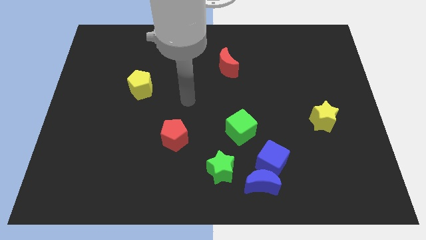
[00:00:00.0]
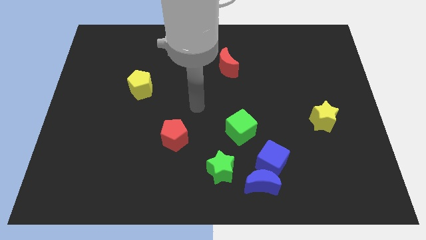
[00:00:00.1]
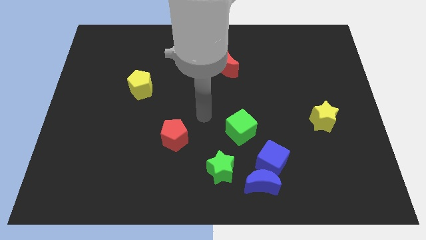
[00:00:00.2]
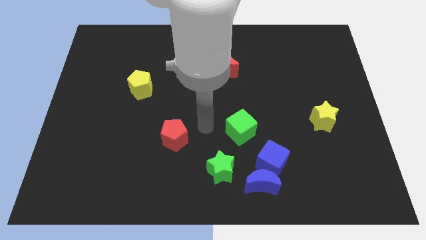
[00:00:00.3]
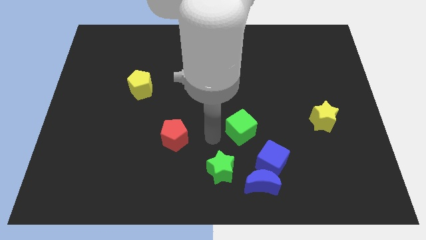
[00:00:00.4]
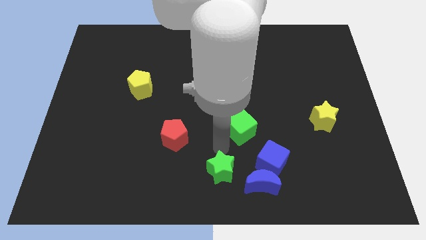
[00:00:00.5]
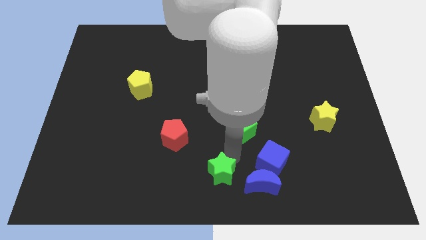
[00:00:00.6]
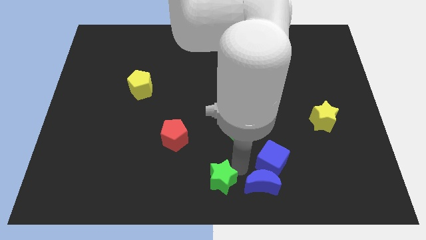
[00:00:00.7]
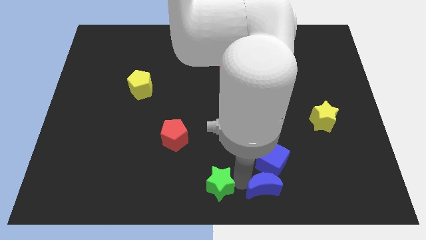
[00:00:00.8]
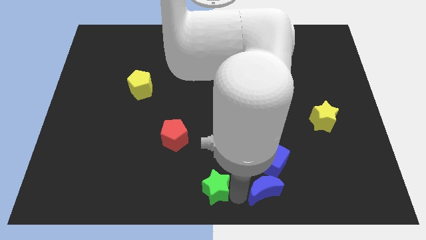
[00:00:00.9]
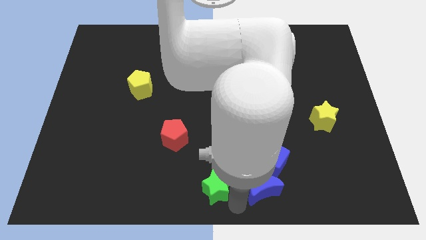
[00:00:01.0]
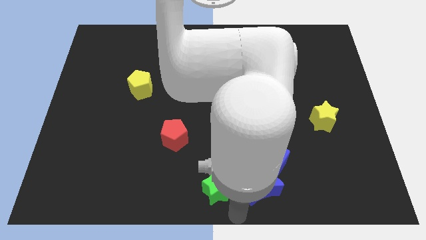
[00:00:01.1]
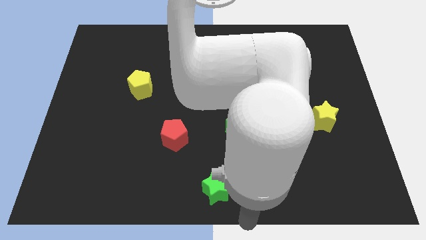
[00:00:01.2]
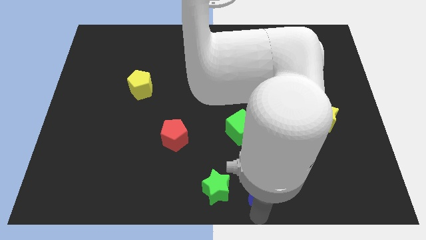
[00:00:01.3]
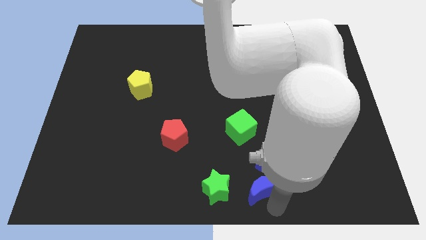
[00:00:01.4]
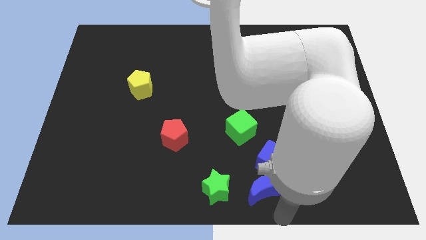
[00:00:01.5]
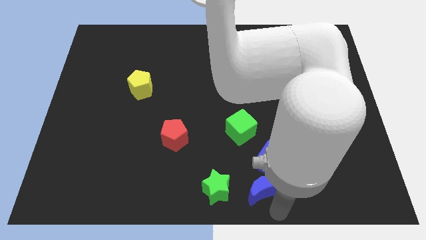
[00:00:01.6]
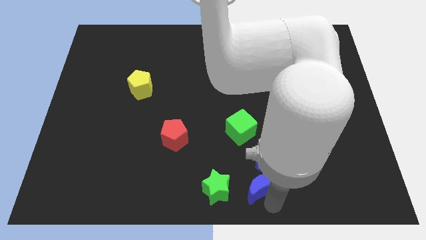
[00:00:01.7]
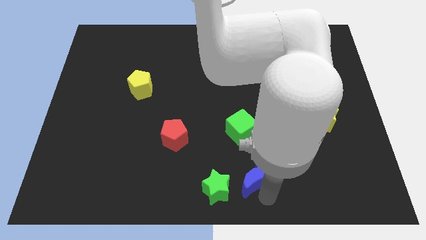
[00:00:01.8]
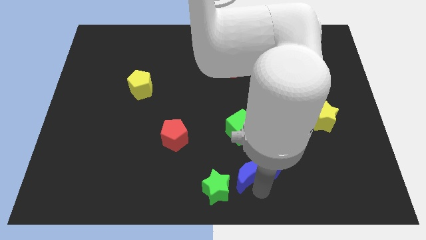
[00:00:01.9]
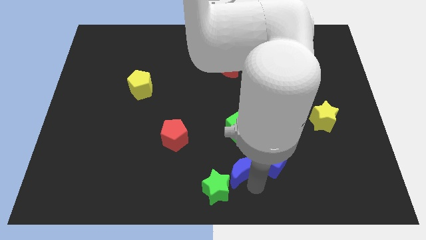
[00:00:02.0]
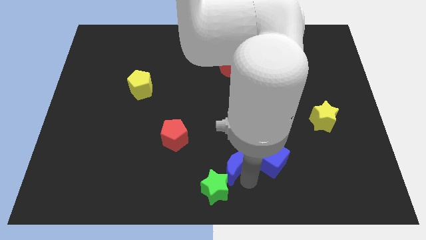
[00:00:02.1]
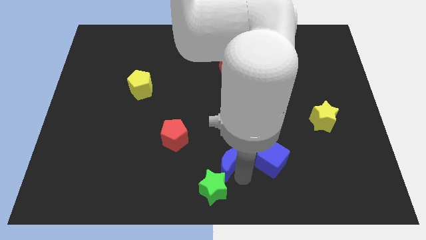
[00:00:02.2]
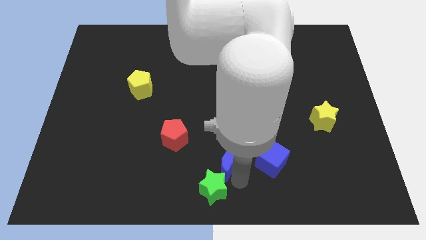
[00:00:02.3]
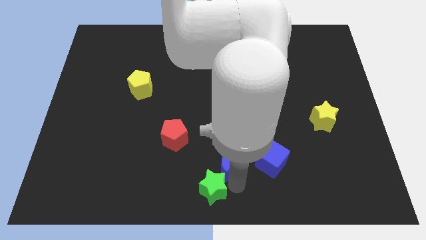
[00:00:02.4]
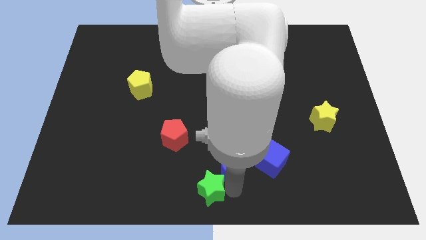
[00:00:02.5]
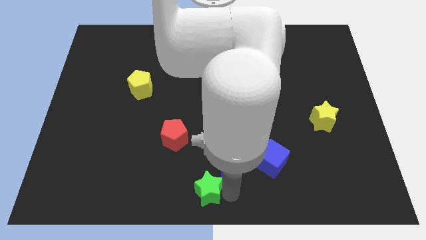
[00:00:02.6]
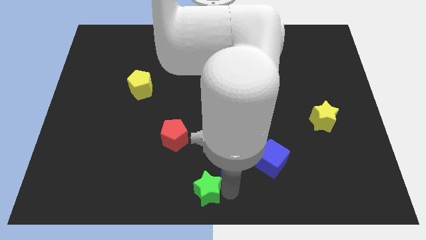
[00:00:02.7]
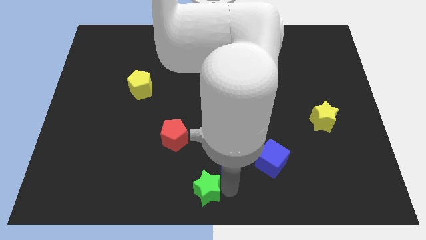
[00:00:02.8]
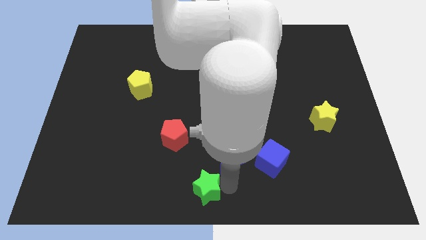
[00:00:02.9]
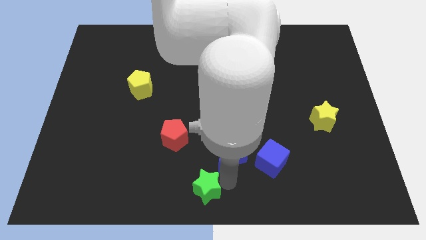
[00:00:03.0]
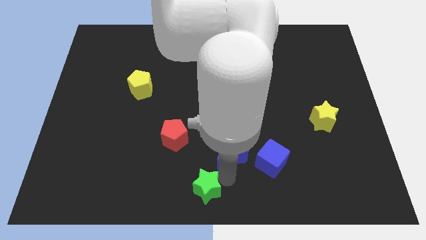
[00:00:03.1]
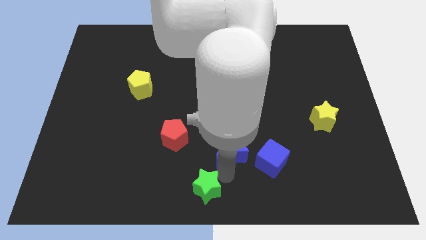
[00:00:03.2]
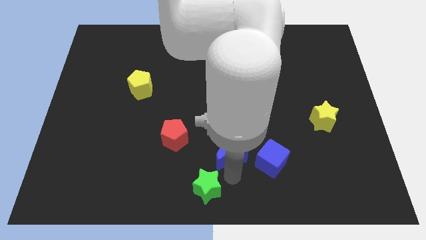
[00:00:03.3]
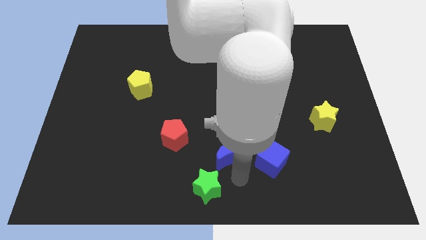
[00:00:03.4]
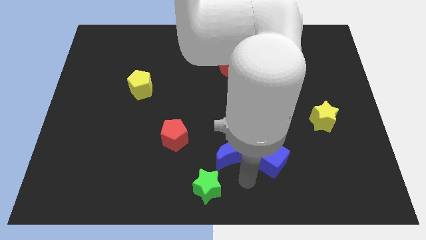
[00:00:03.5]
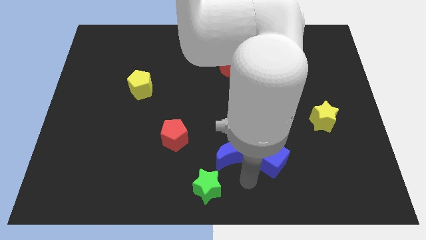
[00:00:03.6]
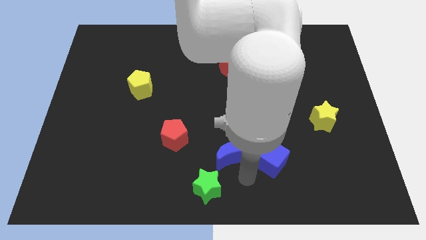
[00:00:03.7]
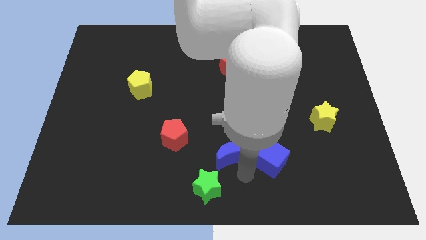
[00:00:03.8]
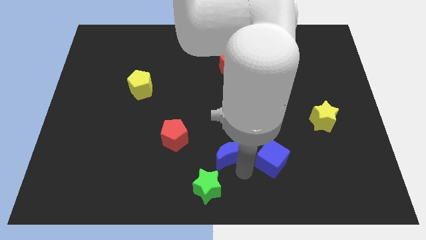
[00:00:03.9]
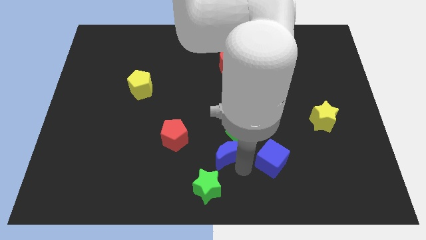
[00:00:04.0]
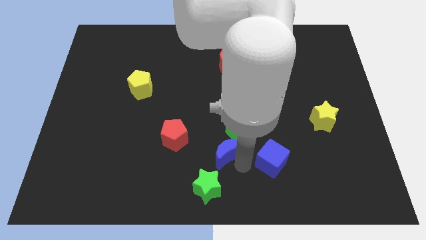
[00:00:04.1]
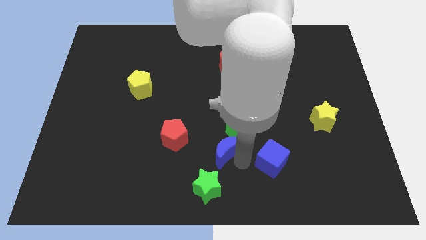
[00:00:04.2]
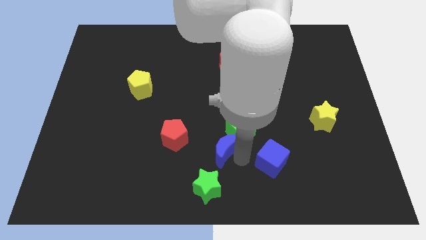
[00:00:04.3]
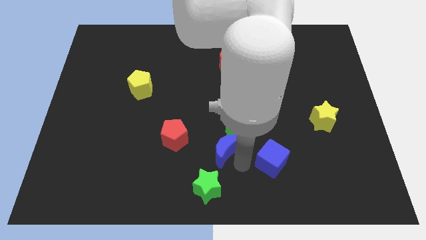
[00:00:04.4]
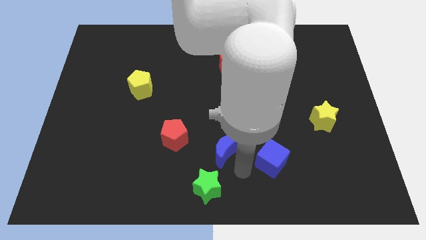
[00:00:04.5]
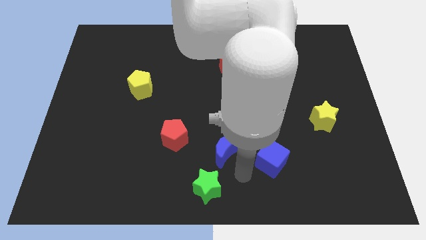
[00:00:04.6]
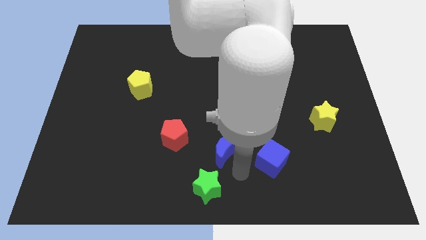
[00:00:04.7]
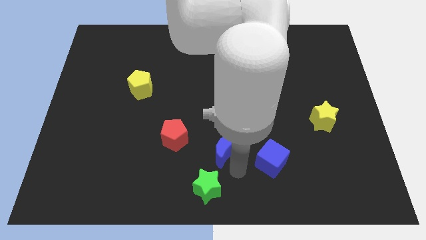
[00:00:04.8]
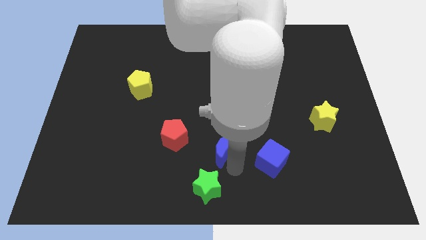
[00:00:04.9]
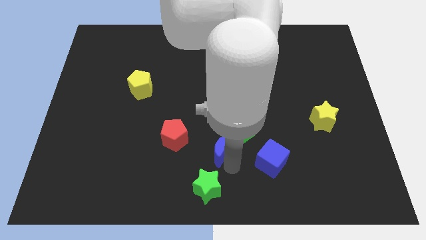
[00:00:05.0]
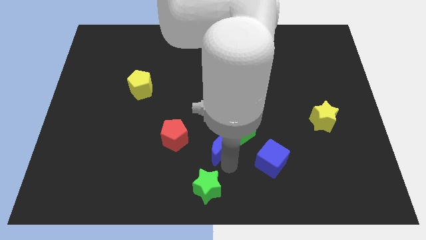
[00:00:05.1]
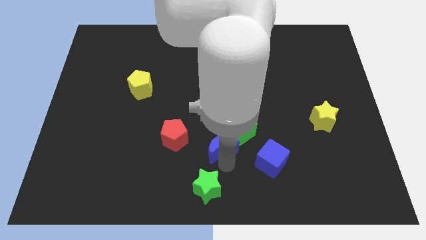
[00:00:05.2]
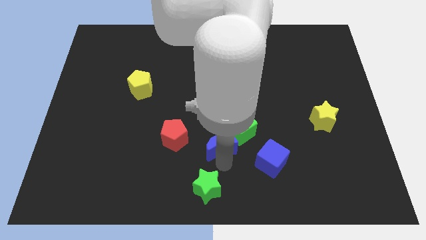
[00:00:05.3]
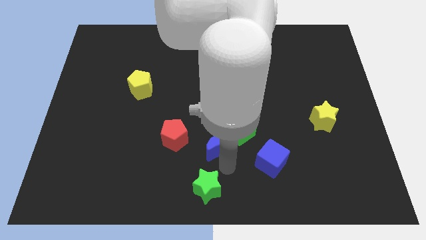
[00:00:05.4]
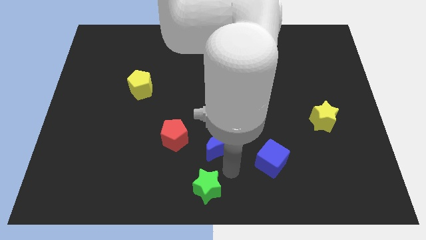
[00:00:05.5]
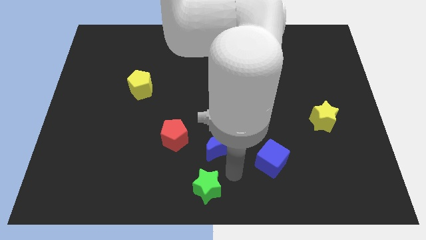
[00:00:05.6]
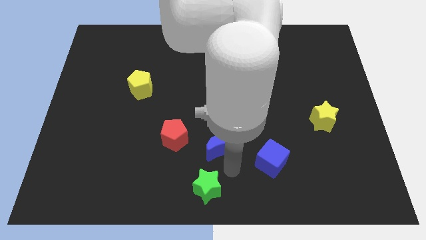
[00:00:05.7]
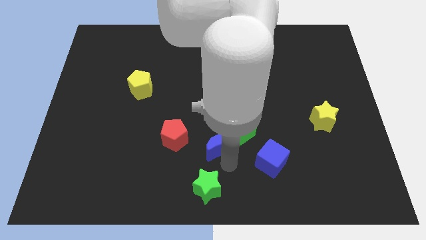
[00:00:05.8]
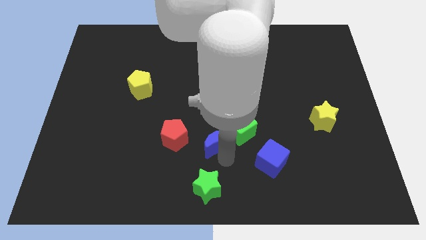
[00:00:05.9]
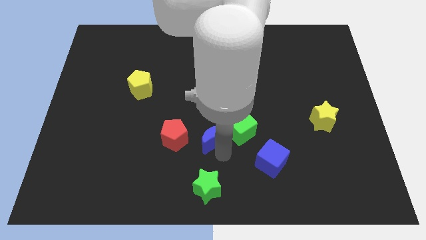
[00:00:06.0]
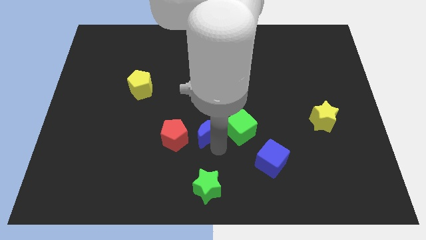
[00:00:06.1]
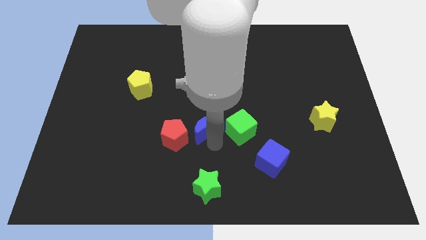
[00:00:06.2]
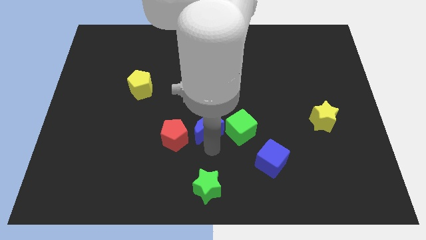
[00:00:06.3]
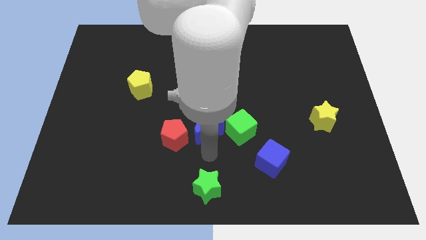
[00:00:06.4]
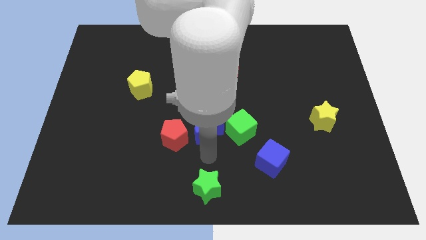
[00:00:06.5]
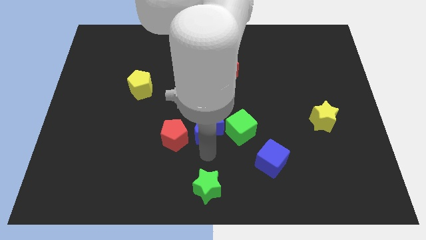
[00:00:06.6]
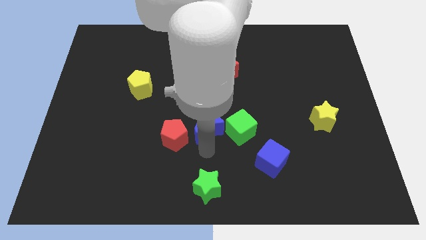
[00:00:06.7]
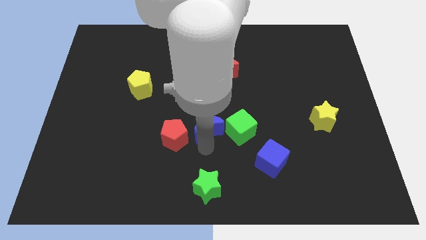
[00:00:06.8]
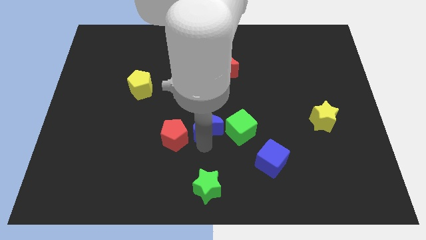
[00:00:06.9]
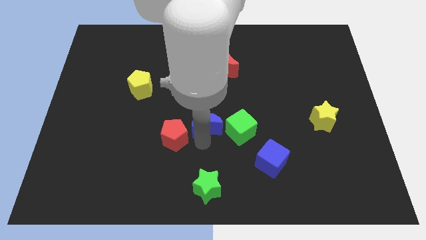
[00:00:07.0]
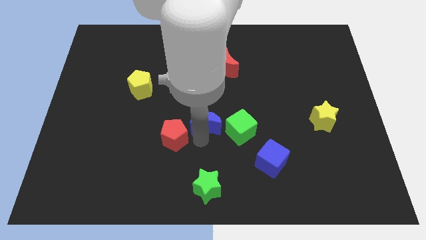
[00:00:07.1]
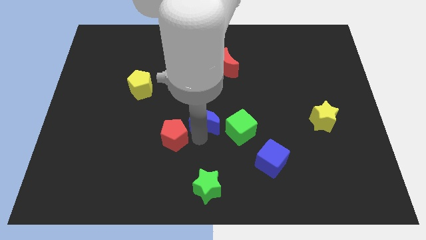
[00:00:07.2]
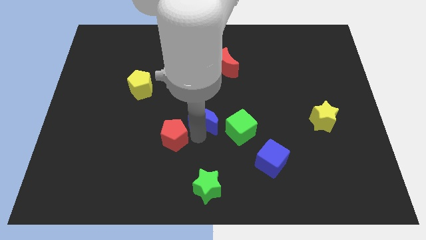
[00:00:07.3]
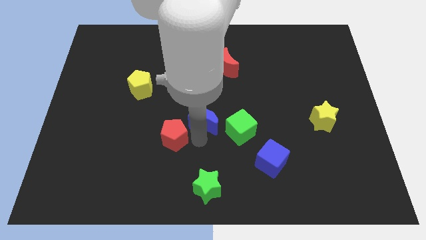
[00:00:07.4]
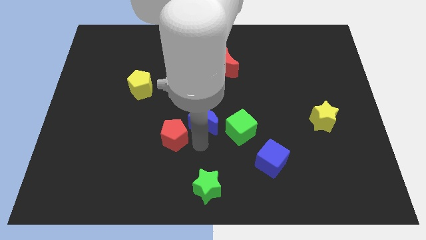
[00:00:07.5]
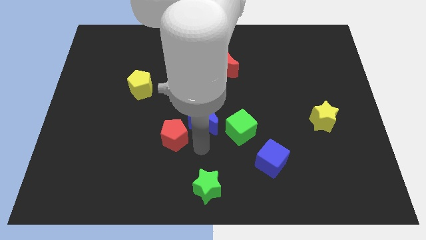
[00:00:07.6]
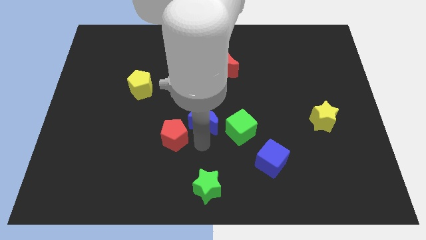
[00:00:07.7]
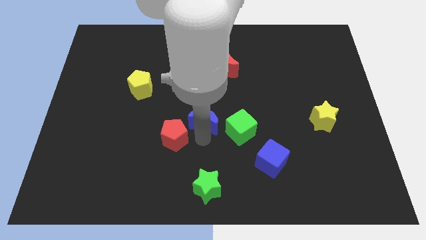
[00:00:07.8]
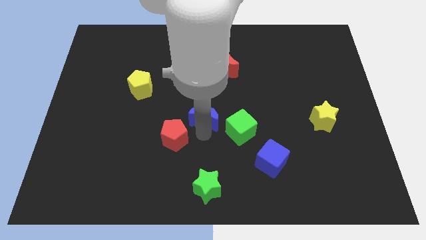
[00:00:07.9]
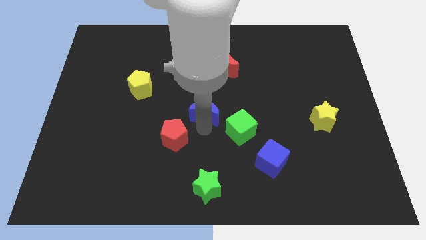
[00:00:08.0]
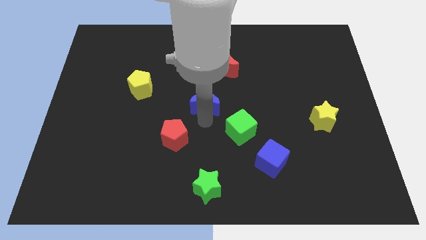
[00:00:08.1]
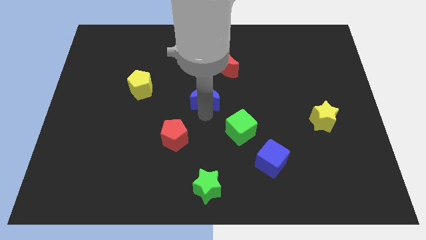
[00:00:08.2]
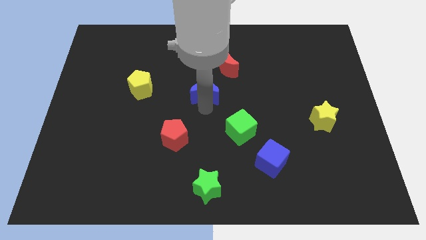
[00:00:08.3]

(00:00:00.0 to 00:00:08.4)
push the blue moon diagonally down and to the left of the red moon
